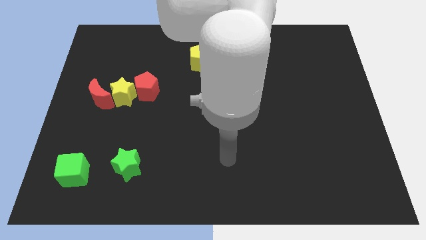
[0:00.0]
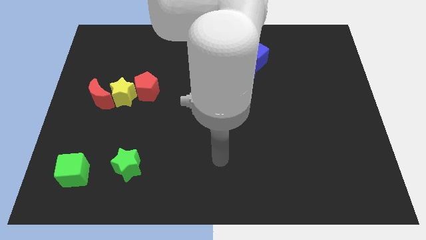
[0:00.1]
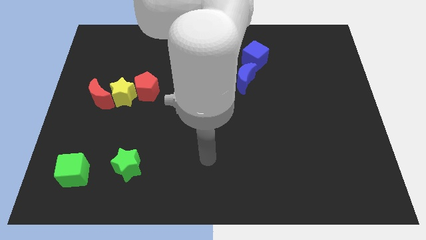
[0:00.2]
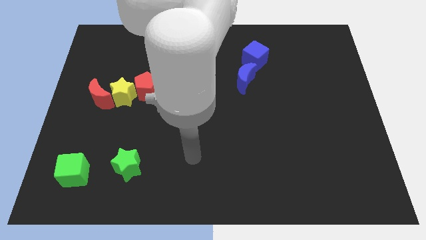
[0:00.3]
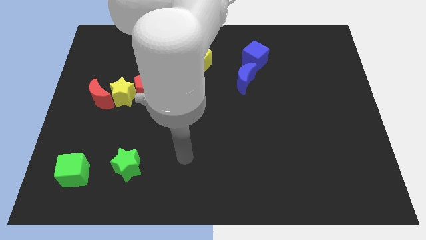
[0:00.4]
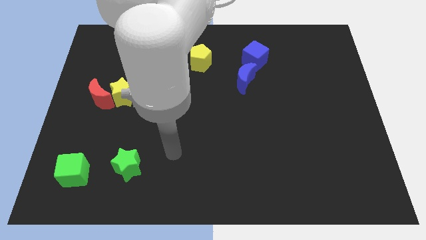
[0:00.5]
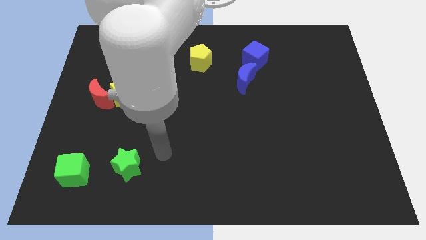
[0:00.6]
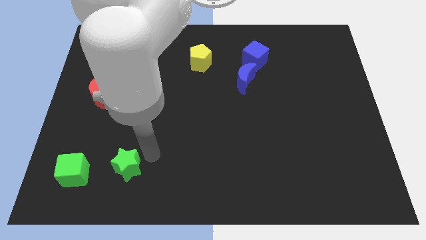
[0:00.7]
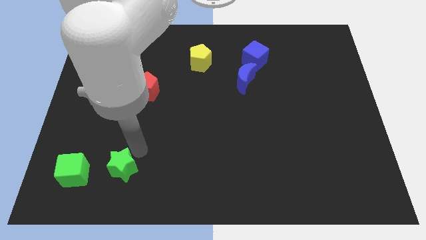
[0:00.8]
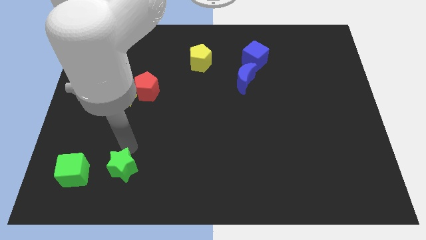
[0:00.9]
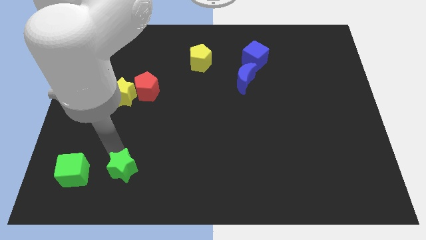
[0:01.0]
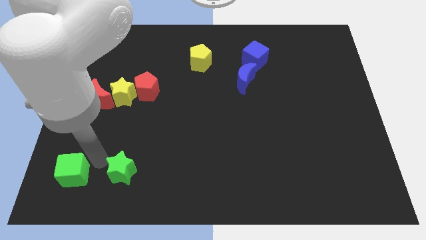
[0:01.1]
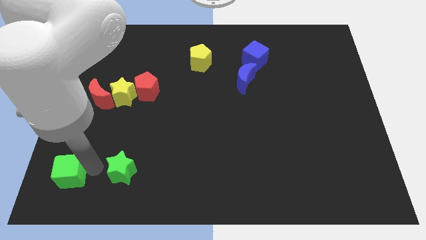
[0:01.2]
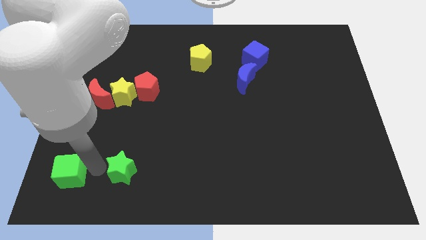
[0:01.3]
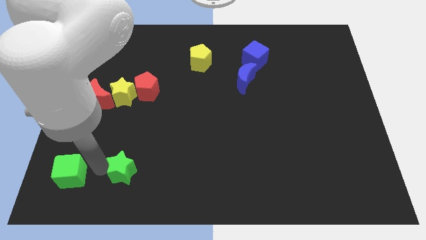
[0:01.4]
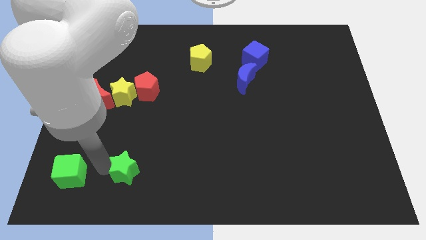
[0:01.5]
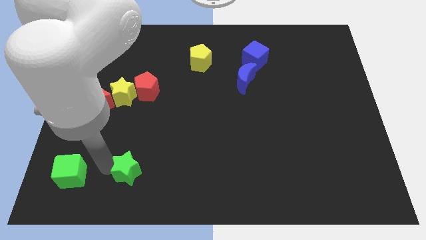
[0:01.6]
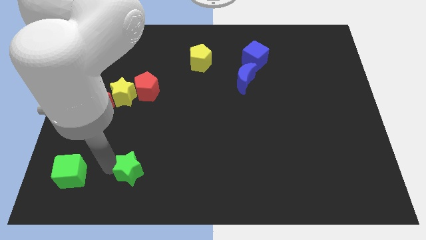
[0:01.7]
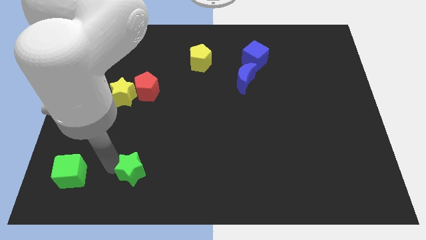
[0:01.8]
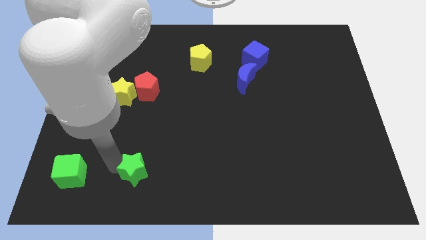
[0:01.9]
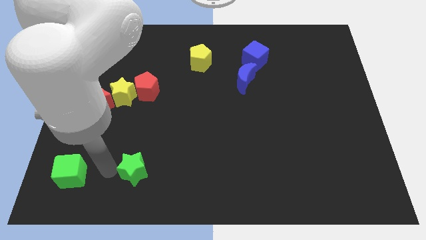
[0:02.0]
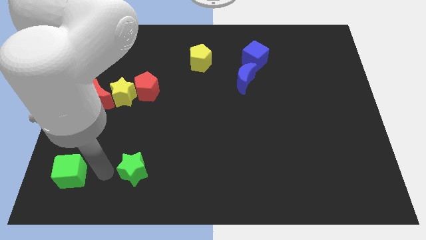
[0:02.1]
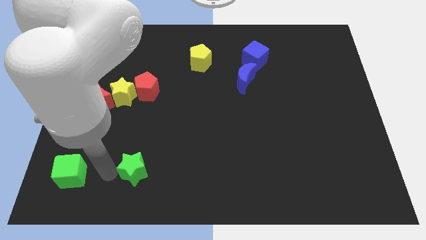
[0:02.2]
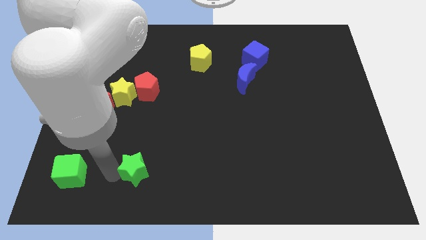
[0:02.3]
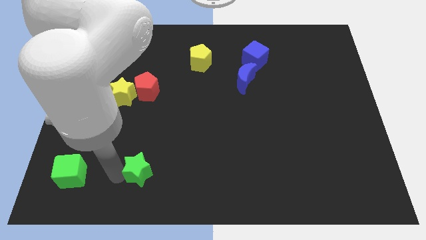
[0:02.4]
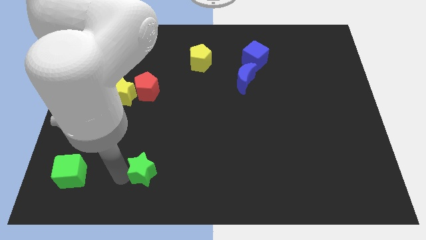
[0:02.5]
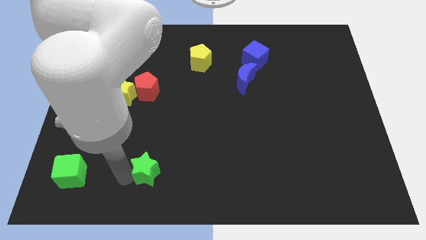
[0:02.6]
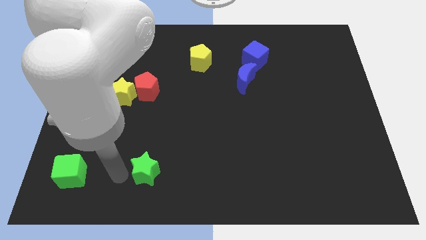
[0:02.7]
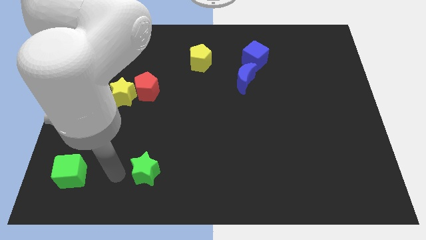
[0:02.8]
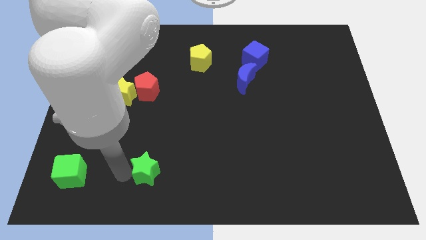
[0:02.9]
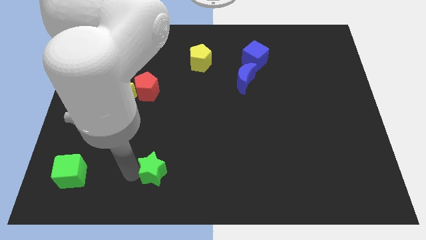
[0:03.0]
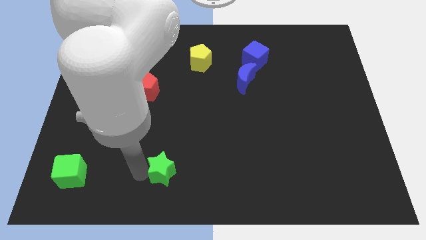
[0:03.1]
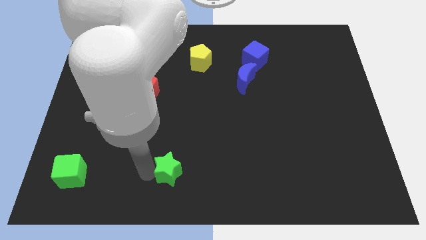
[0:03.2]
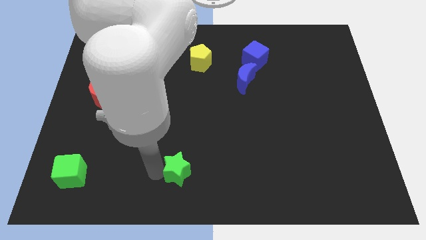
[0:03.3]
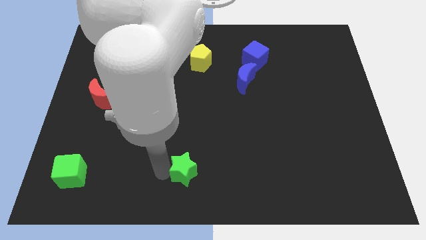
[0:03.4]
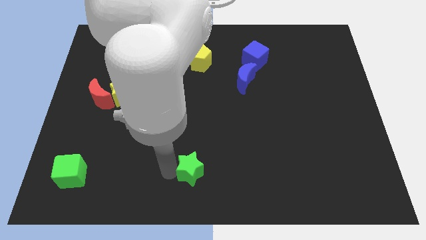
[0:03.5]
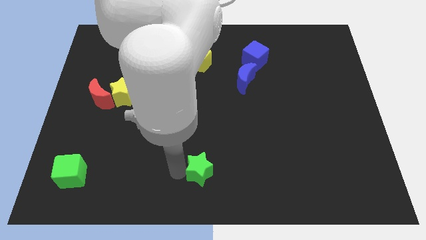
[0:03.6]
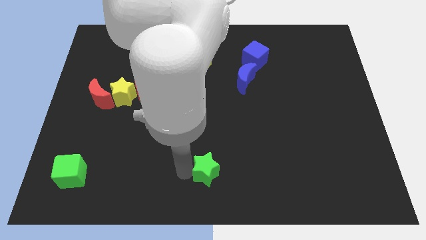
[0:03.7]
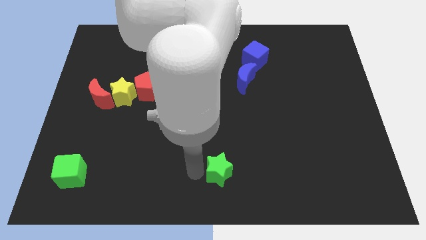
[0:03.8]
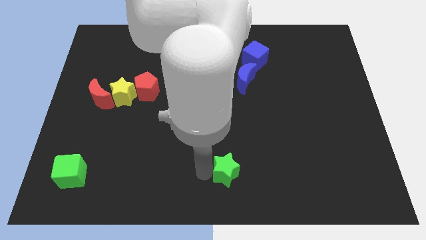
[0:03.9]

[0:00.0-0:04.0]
push the green star to the right

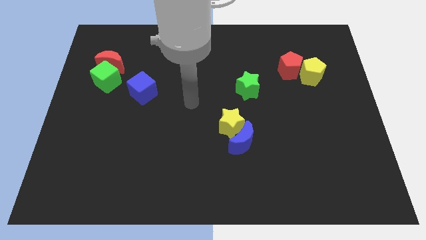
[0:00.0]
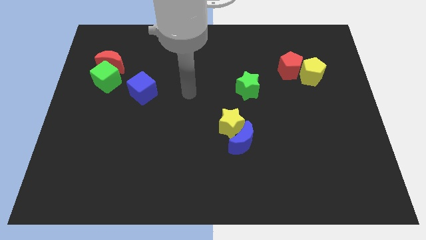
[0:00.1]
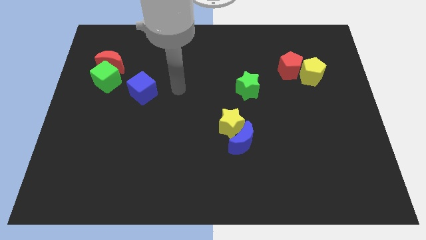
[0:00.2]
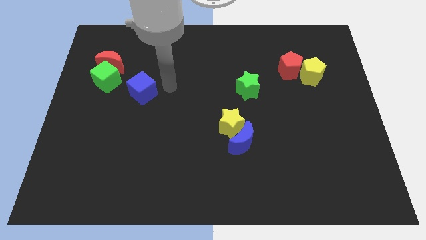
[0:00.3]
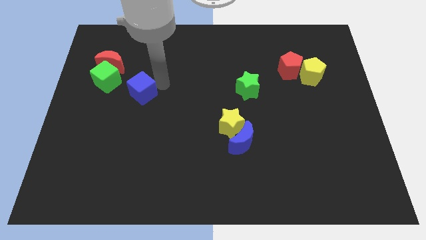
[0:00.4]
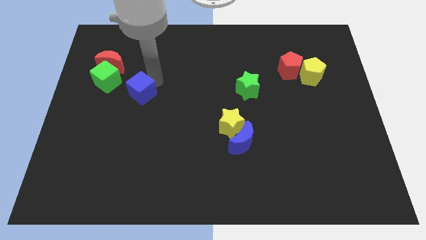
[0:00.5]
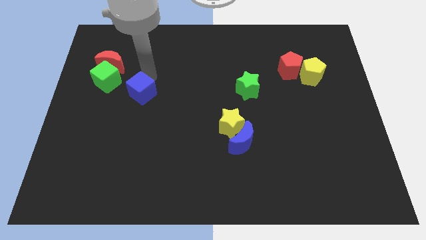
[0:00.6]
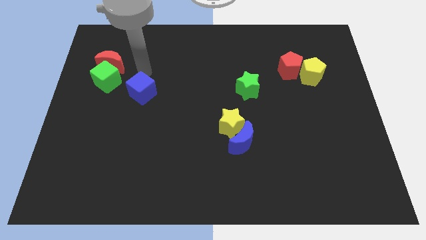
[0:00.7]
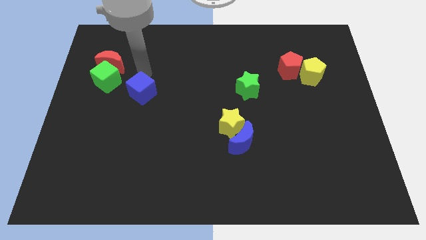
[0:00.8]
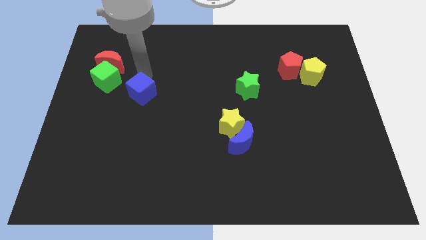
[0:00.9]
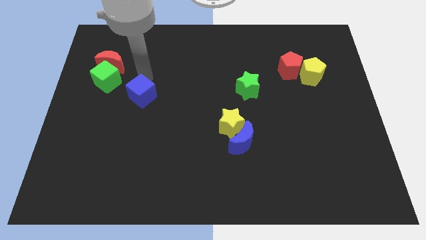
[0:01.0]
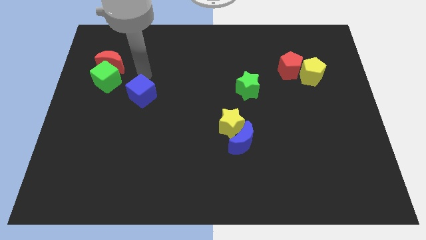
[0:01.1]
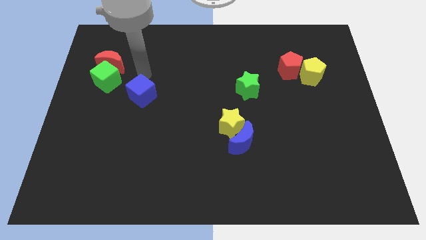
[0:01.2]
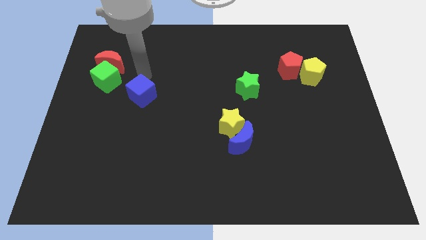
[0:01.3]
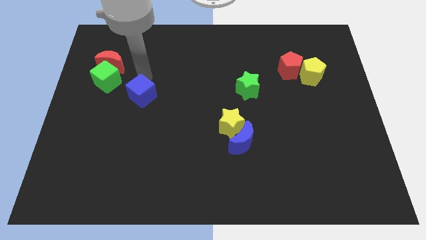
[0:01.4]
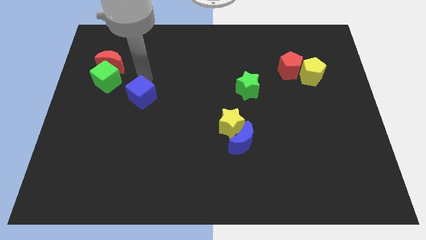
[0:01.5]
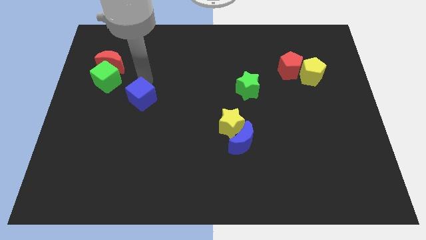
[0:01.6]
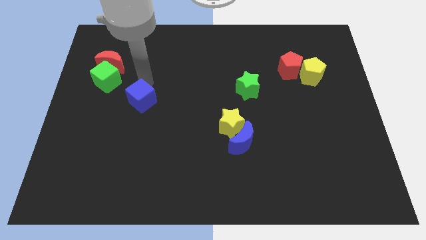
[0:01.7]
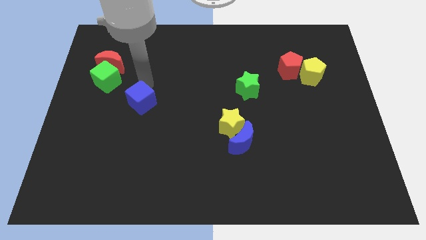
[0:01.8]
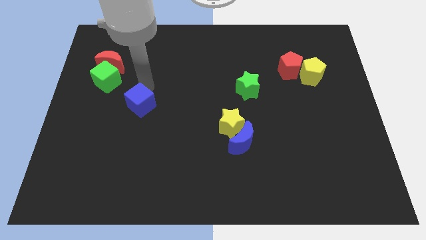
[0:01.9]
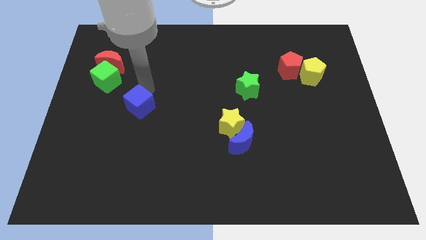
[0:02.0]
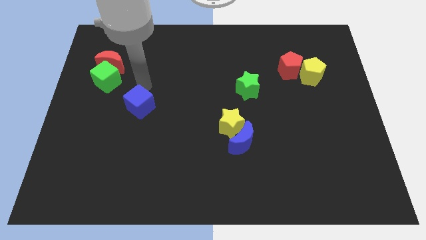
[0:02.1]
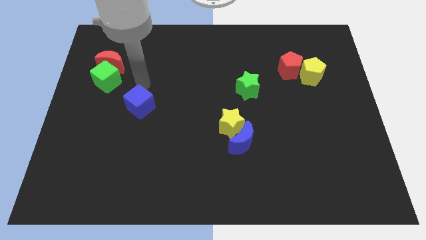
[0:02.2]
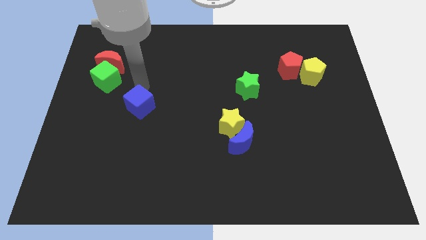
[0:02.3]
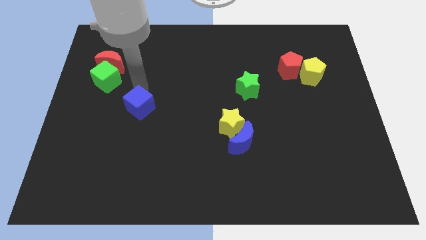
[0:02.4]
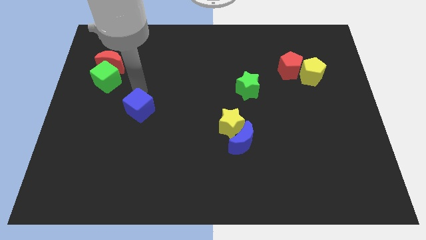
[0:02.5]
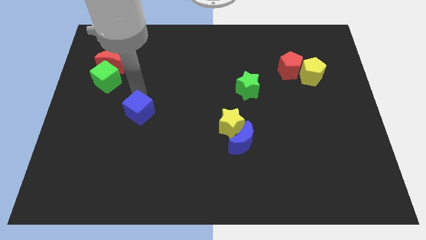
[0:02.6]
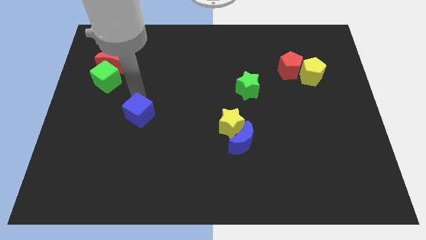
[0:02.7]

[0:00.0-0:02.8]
push the blue cube a bit downwards

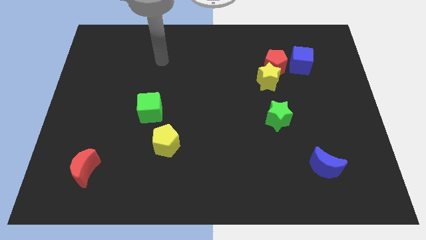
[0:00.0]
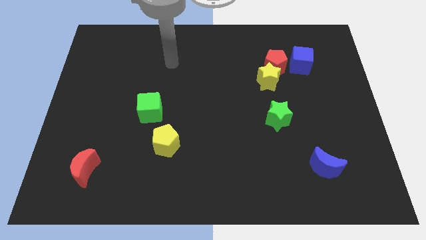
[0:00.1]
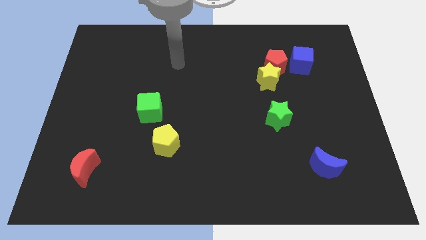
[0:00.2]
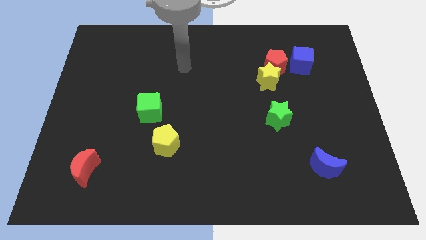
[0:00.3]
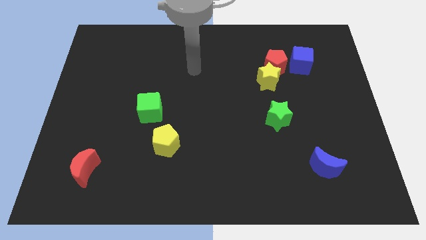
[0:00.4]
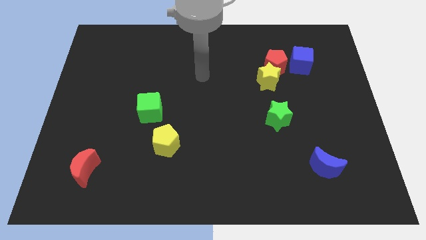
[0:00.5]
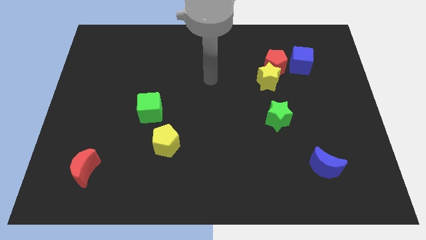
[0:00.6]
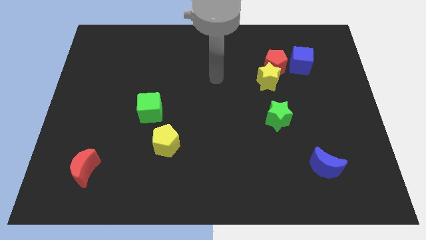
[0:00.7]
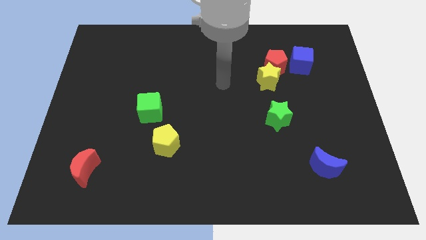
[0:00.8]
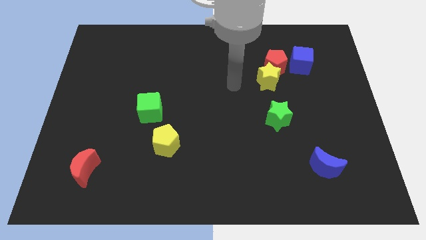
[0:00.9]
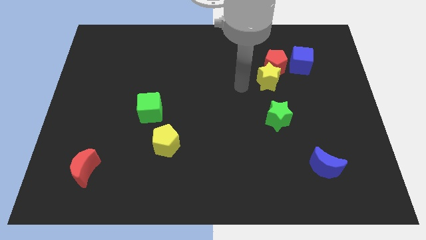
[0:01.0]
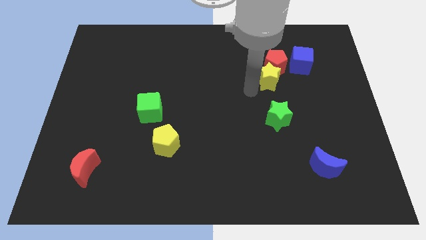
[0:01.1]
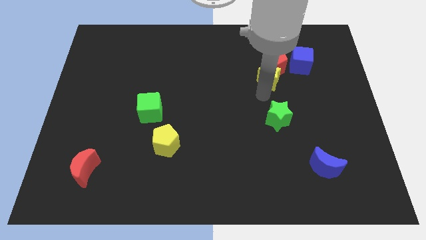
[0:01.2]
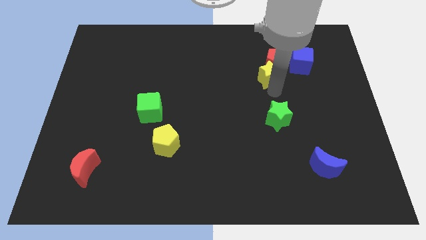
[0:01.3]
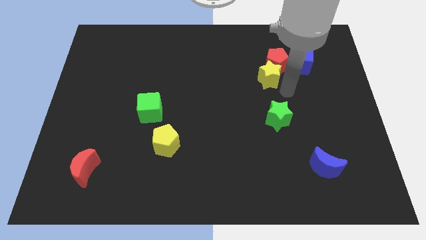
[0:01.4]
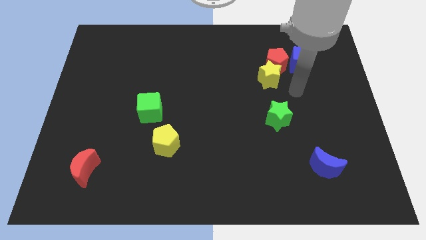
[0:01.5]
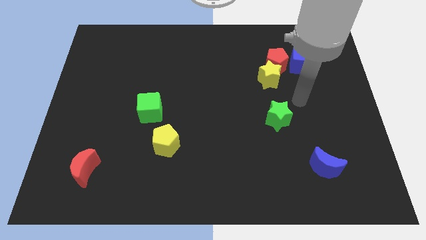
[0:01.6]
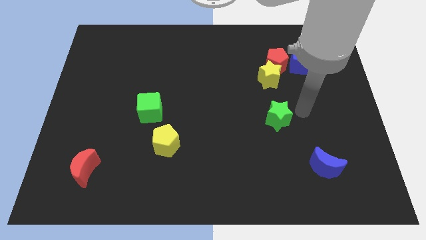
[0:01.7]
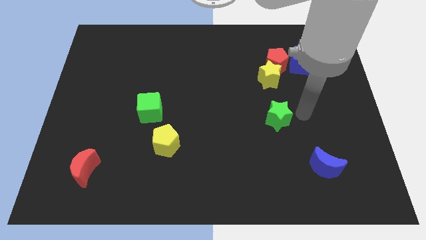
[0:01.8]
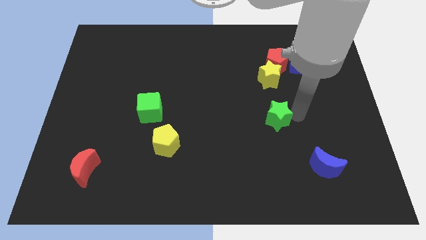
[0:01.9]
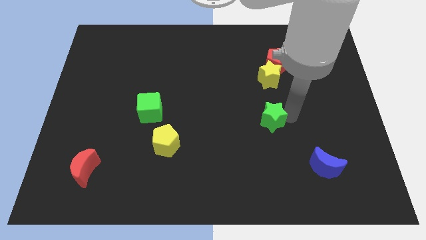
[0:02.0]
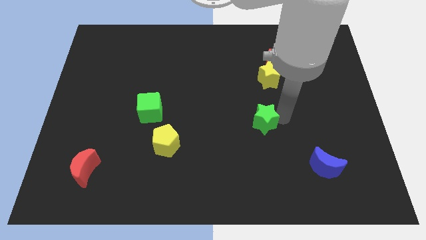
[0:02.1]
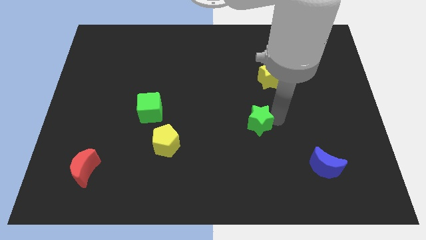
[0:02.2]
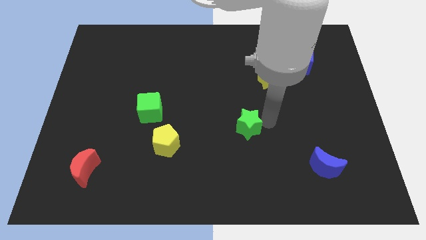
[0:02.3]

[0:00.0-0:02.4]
push the green star a little bit to the left
